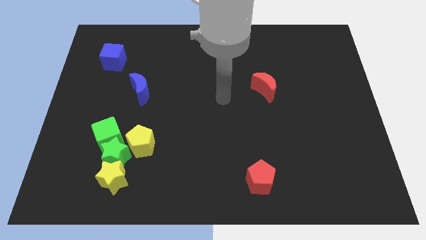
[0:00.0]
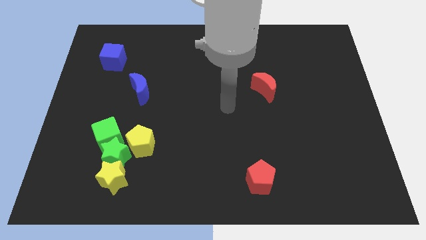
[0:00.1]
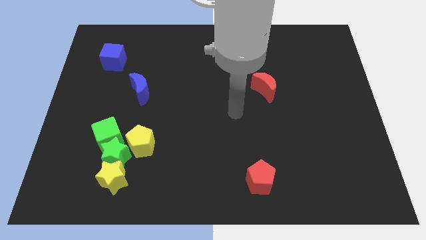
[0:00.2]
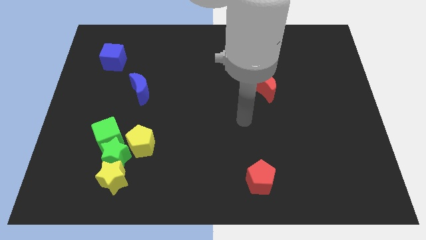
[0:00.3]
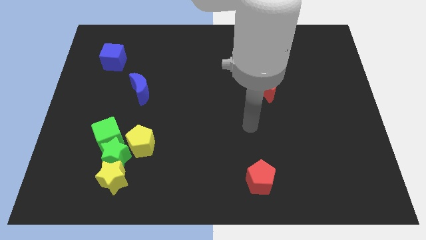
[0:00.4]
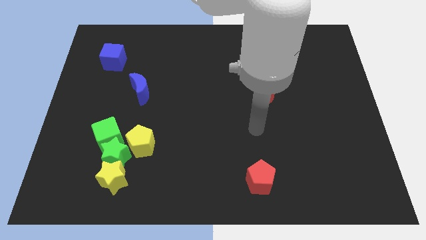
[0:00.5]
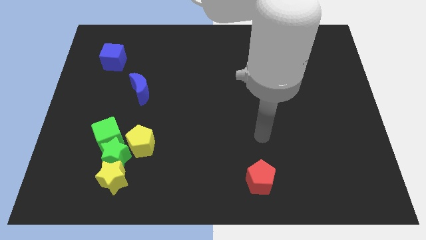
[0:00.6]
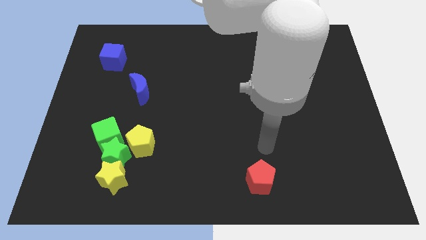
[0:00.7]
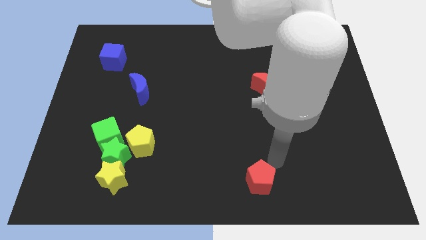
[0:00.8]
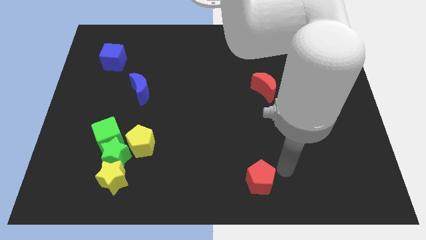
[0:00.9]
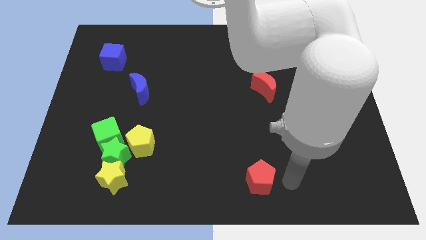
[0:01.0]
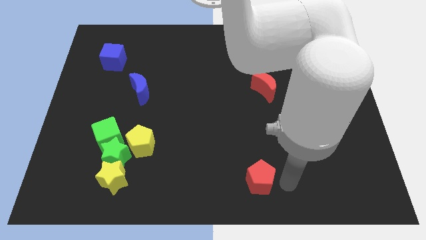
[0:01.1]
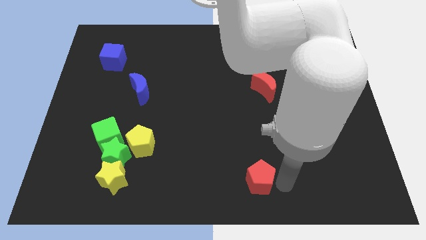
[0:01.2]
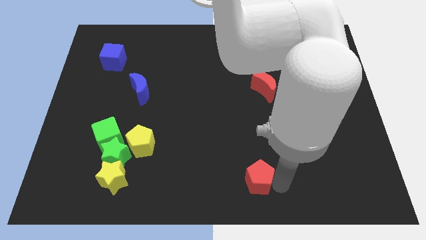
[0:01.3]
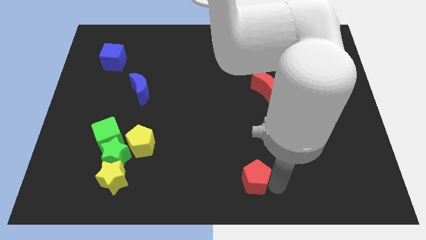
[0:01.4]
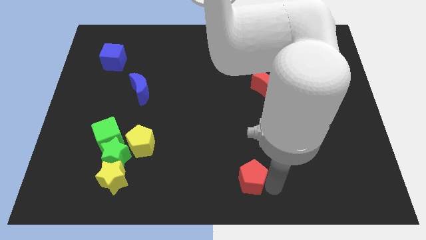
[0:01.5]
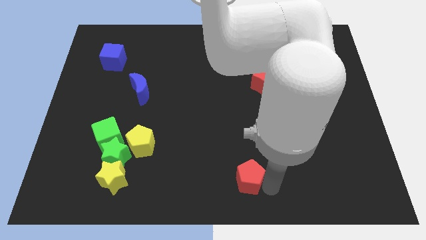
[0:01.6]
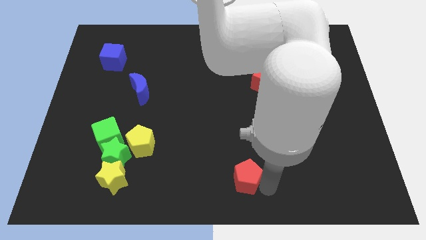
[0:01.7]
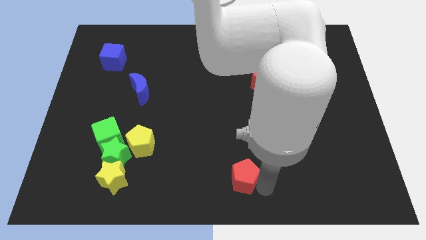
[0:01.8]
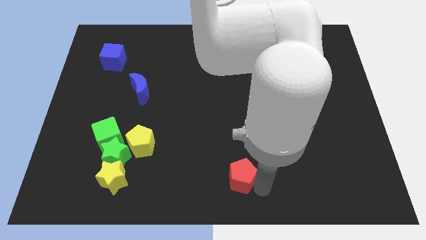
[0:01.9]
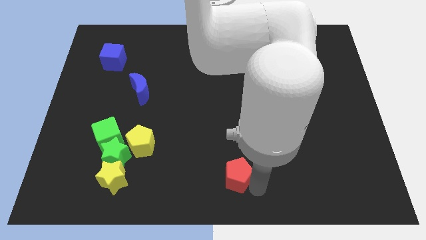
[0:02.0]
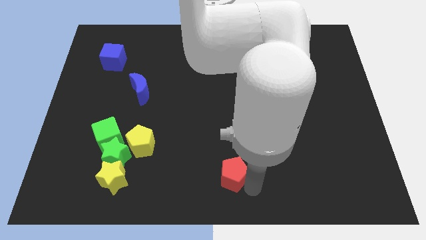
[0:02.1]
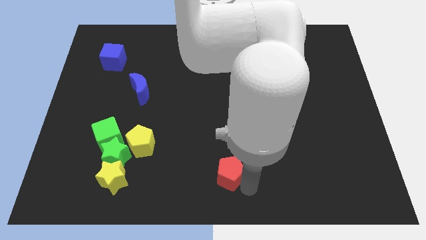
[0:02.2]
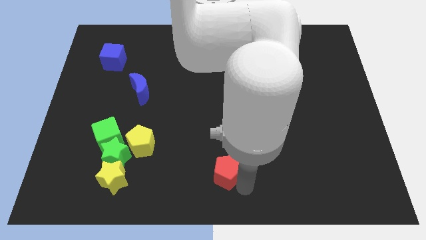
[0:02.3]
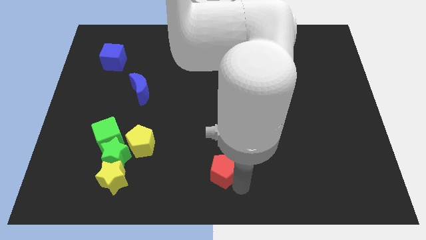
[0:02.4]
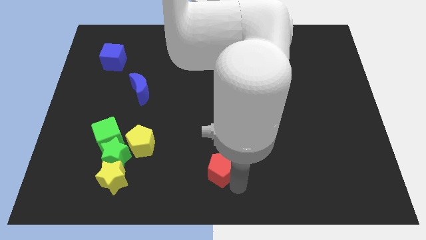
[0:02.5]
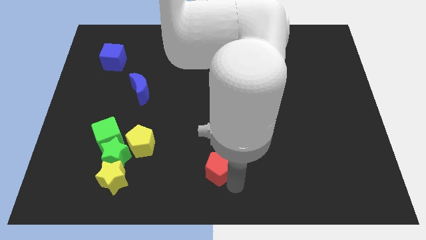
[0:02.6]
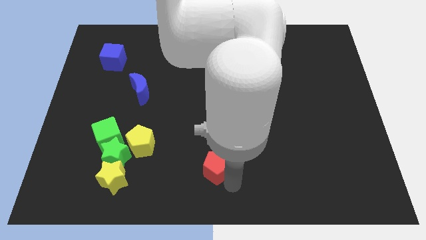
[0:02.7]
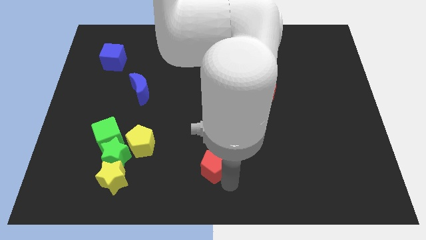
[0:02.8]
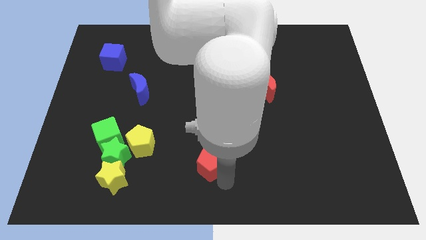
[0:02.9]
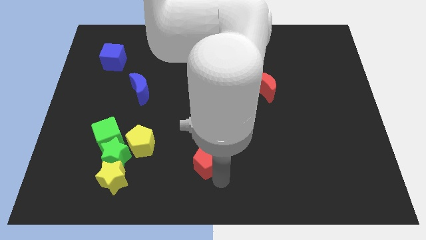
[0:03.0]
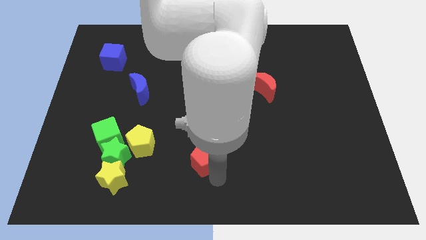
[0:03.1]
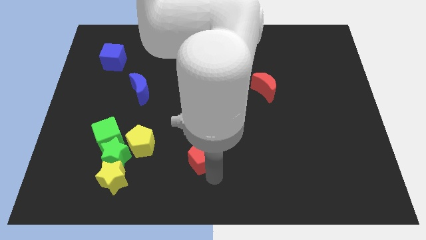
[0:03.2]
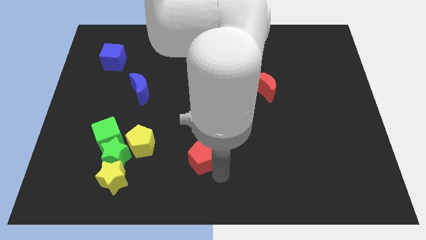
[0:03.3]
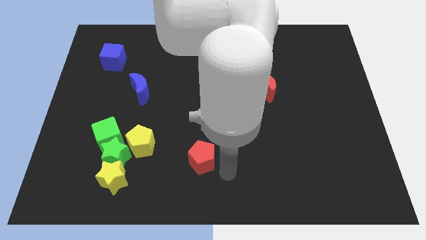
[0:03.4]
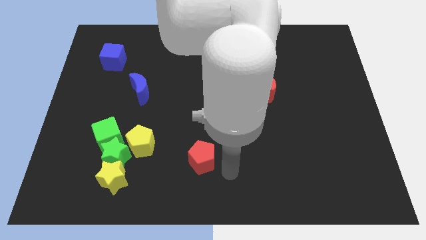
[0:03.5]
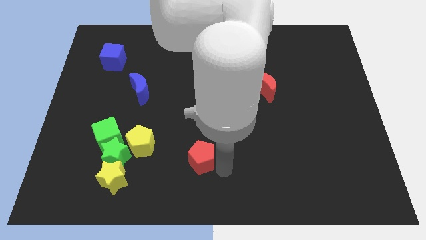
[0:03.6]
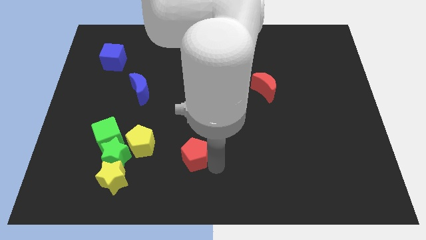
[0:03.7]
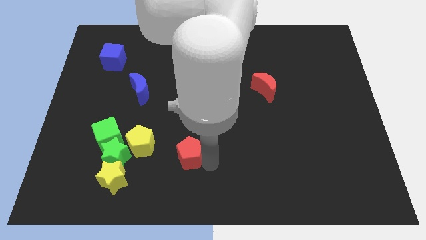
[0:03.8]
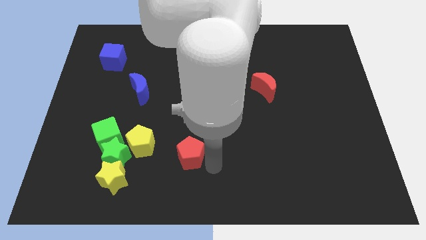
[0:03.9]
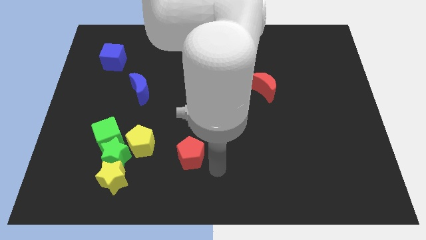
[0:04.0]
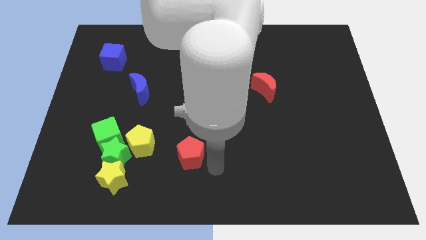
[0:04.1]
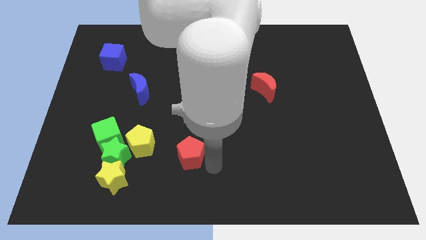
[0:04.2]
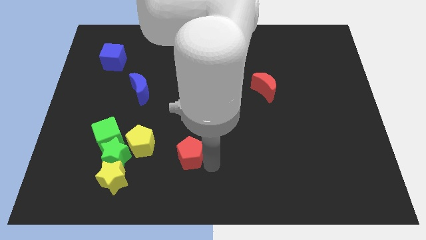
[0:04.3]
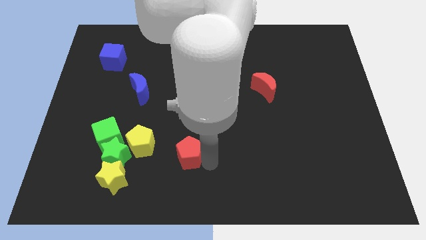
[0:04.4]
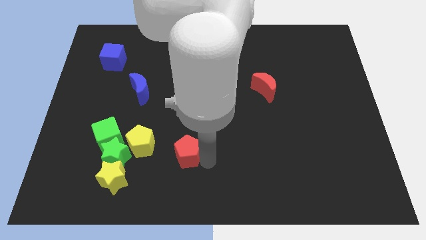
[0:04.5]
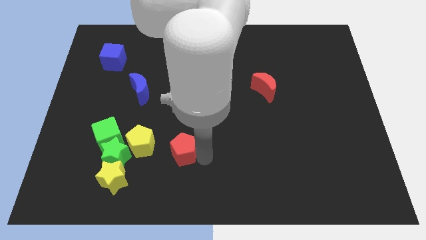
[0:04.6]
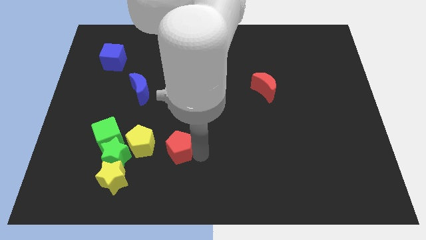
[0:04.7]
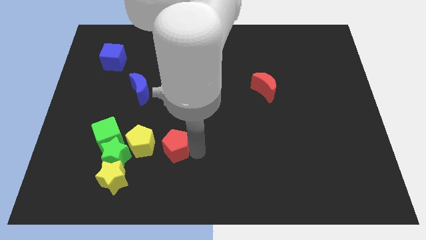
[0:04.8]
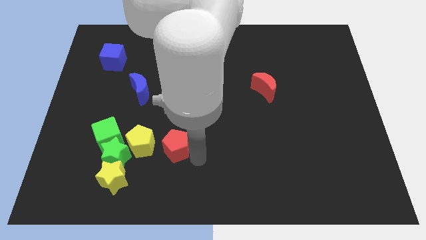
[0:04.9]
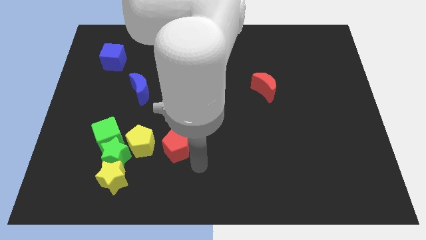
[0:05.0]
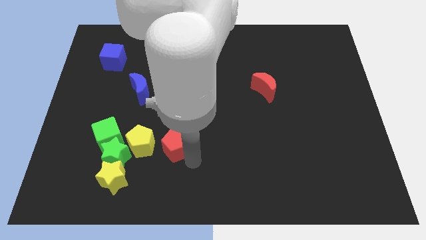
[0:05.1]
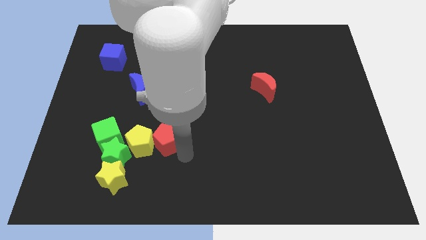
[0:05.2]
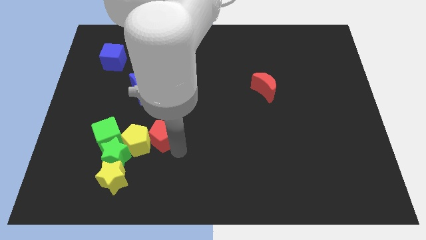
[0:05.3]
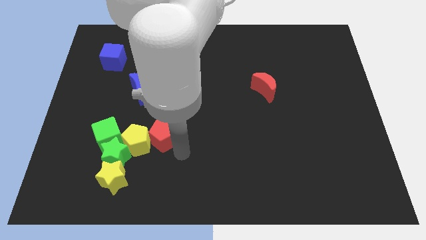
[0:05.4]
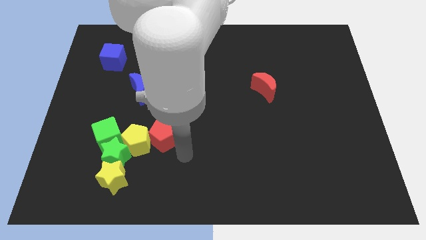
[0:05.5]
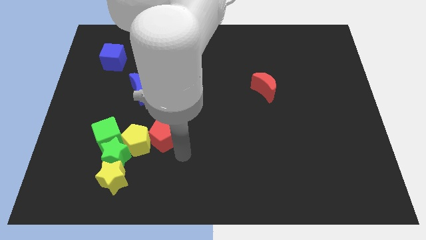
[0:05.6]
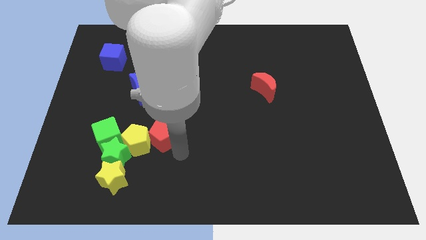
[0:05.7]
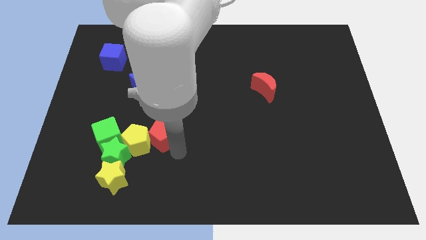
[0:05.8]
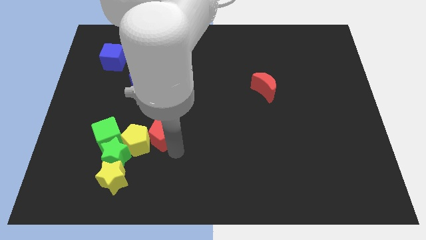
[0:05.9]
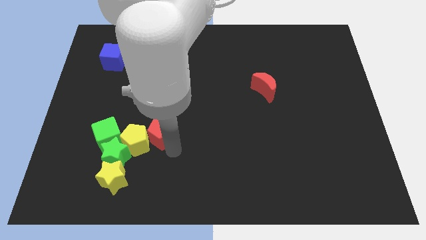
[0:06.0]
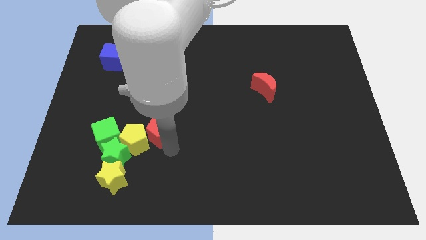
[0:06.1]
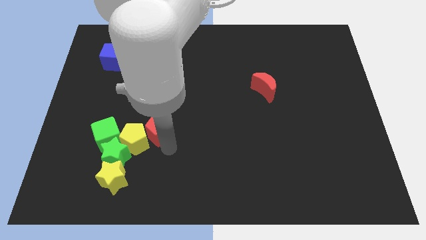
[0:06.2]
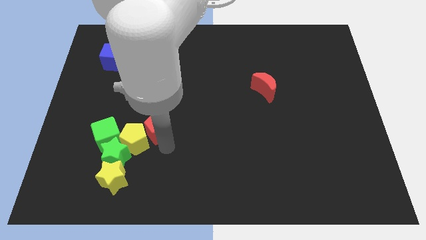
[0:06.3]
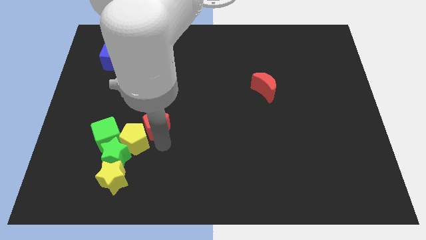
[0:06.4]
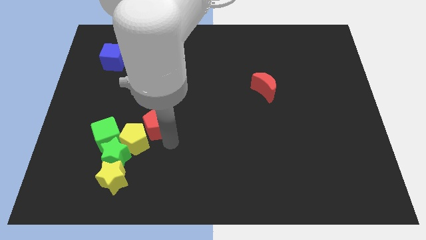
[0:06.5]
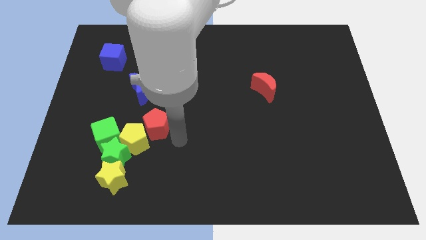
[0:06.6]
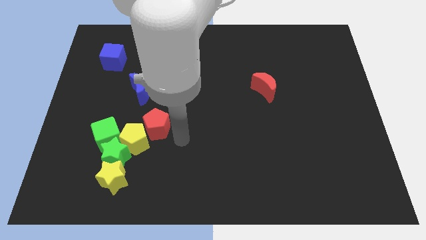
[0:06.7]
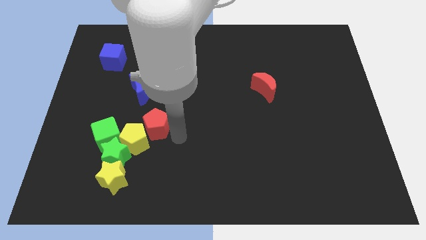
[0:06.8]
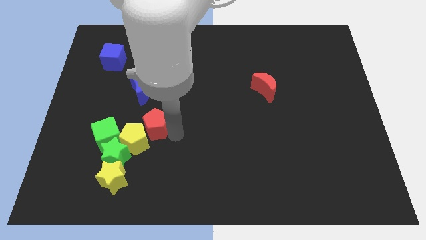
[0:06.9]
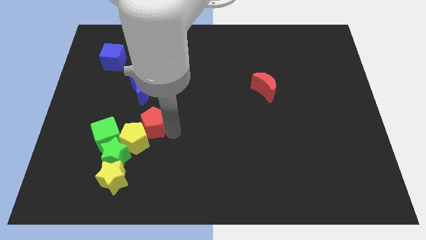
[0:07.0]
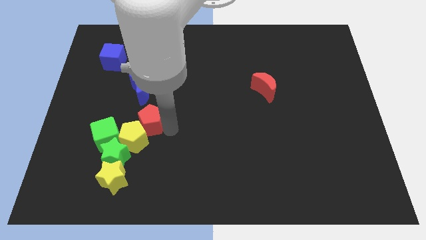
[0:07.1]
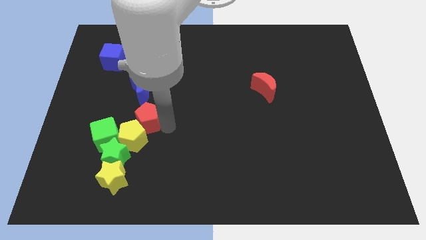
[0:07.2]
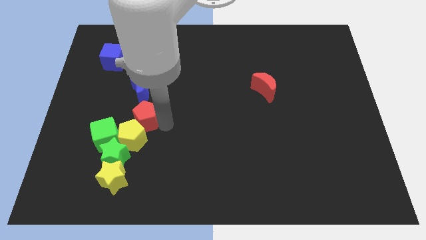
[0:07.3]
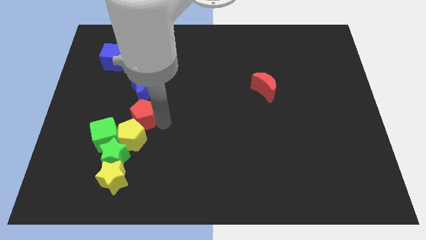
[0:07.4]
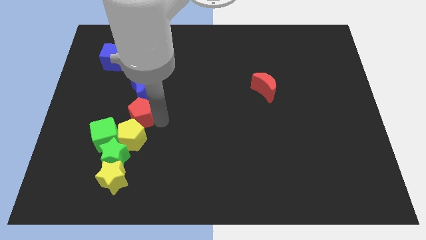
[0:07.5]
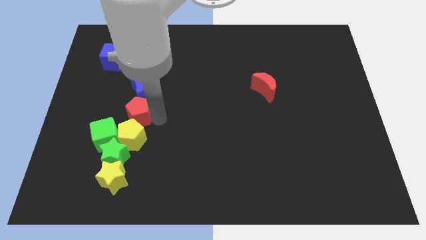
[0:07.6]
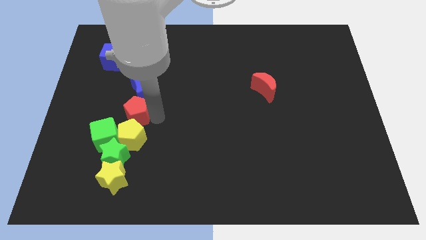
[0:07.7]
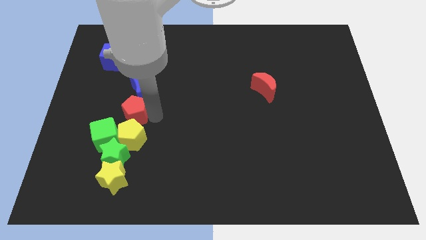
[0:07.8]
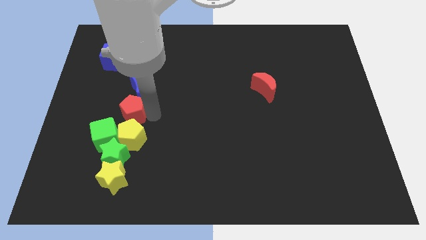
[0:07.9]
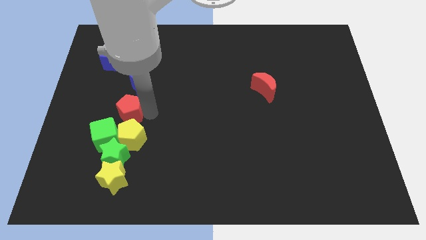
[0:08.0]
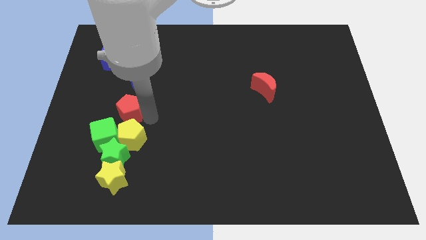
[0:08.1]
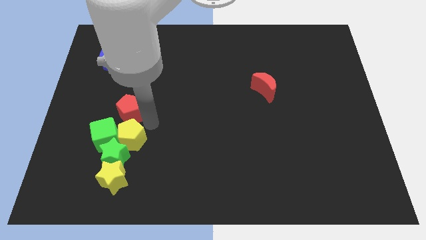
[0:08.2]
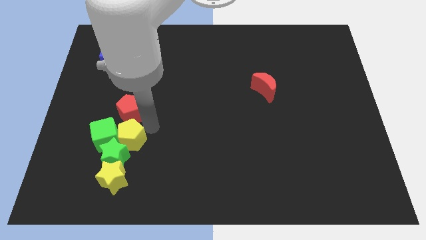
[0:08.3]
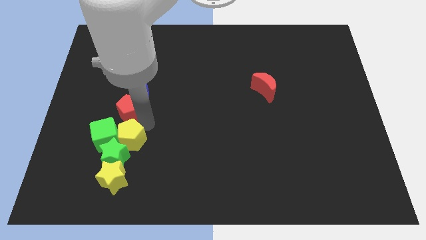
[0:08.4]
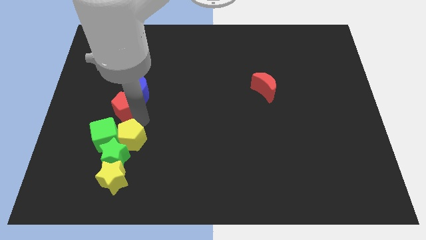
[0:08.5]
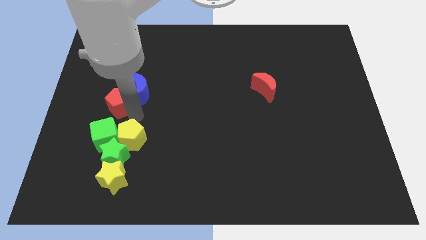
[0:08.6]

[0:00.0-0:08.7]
push the red pentagon to the left side of the blue moon
